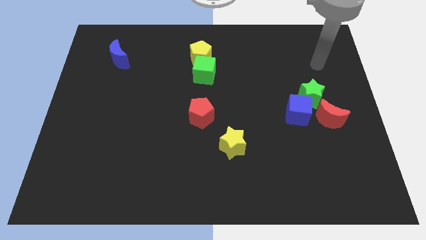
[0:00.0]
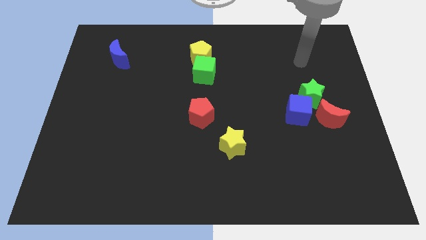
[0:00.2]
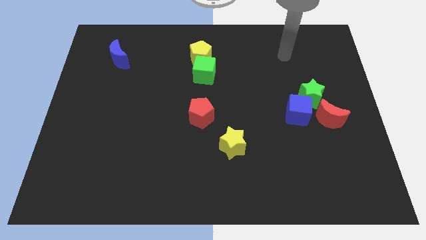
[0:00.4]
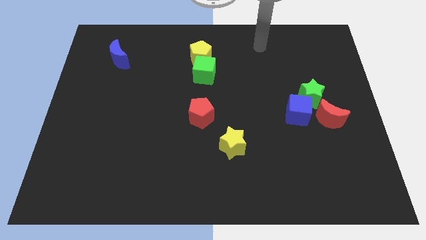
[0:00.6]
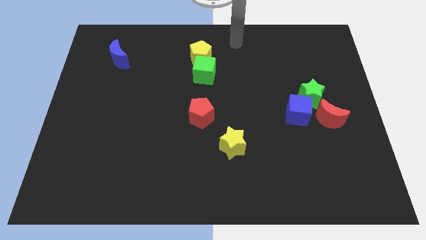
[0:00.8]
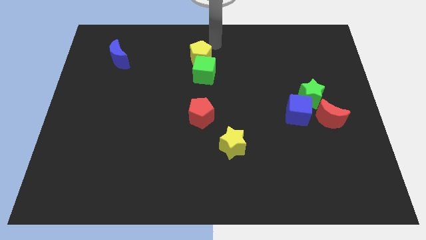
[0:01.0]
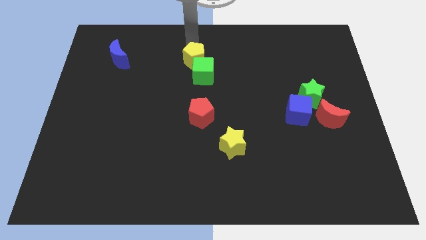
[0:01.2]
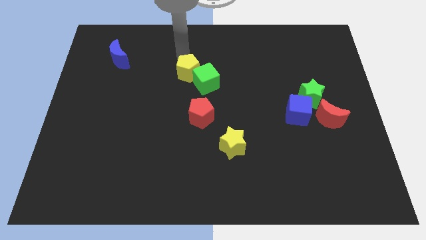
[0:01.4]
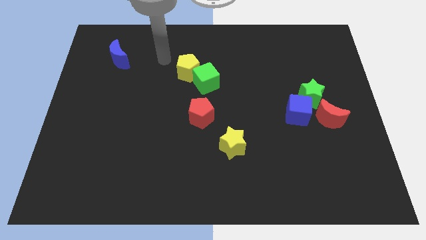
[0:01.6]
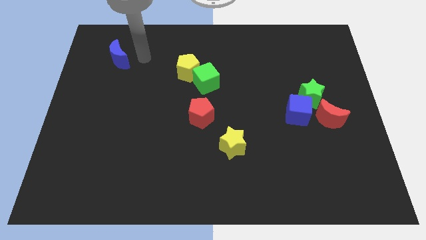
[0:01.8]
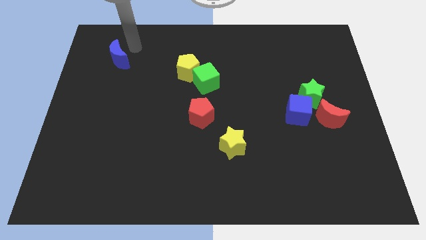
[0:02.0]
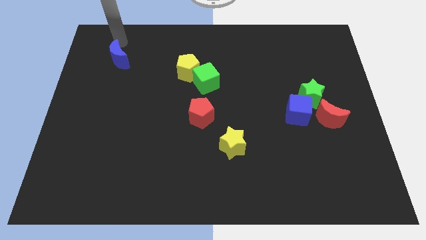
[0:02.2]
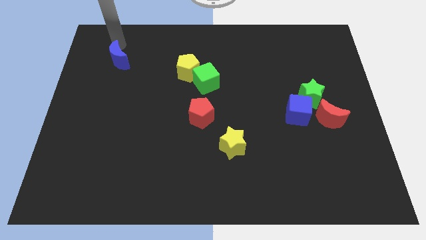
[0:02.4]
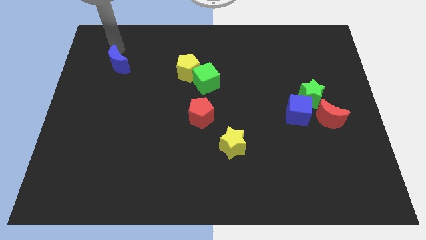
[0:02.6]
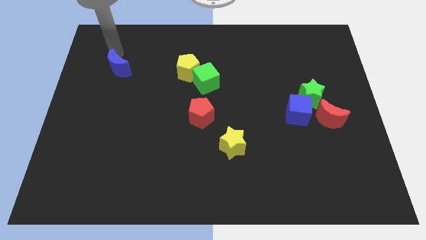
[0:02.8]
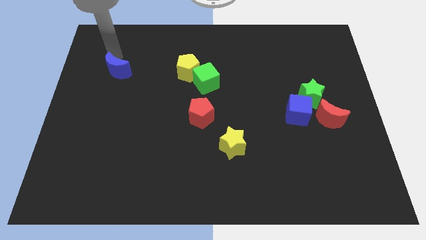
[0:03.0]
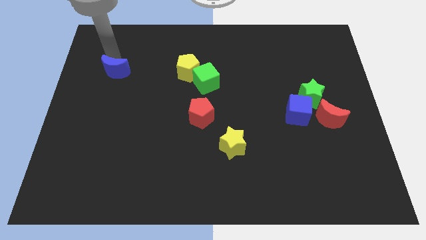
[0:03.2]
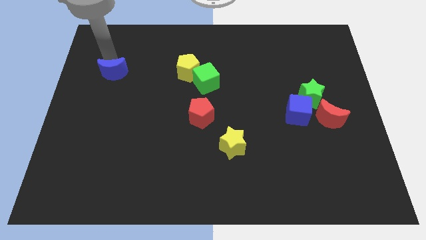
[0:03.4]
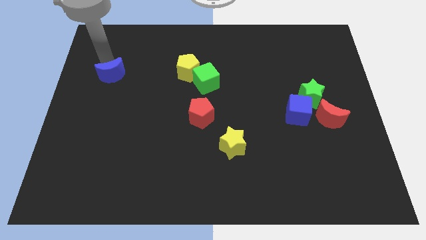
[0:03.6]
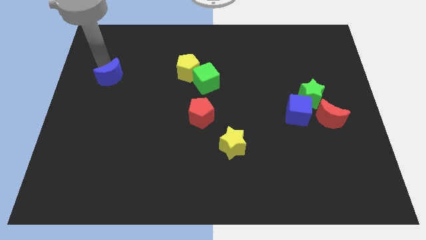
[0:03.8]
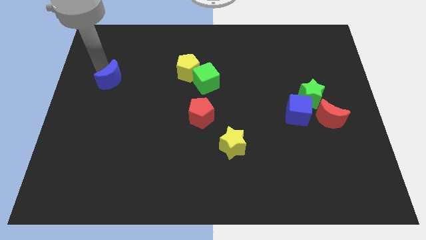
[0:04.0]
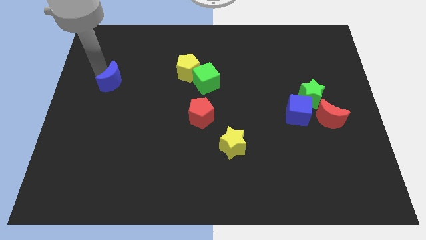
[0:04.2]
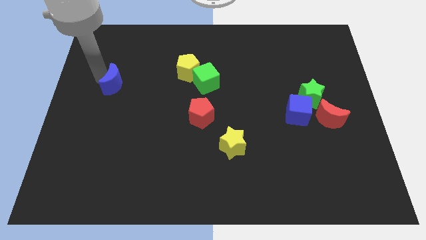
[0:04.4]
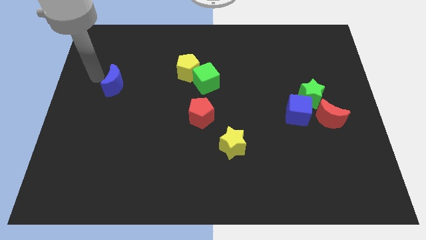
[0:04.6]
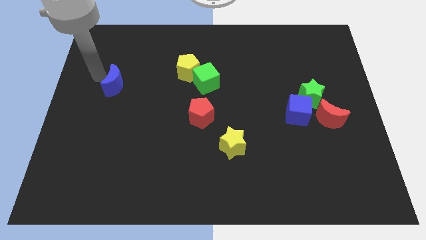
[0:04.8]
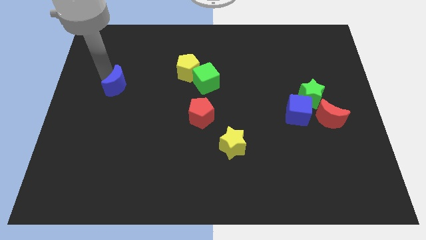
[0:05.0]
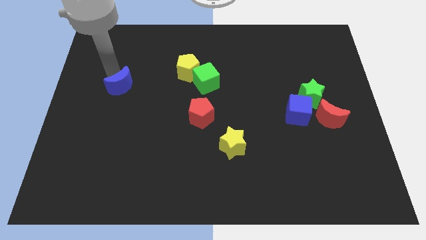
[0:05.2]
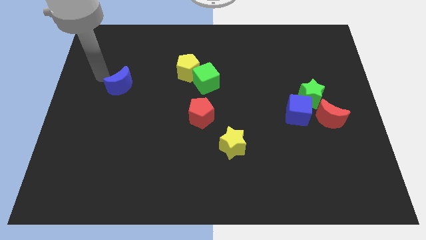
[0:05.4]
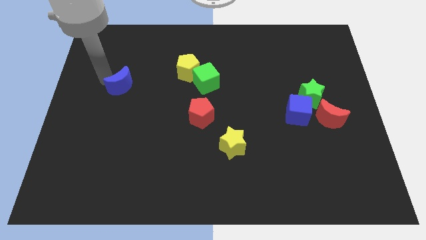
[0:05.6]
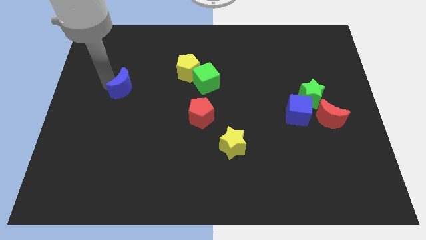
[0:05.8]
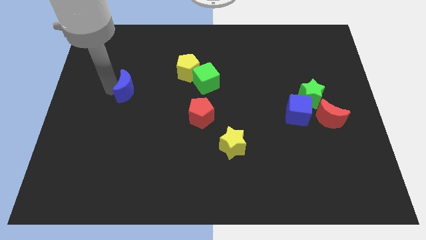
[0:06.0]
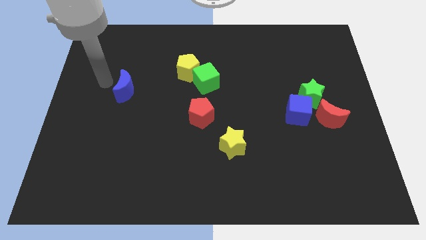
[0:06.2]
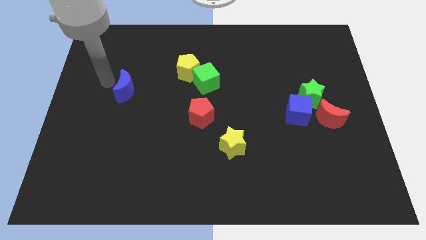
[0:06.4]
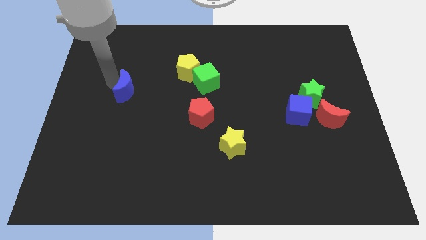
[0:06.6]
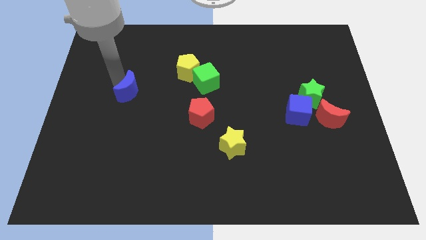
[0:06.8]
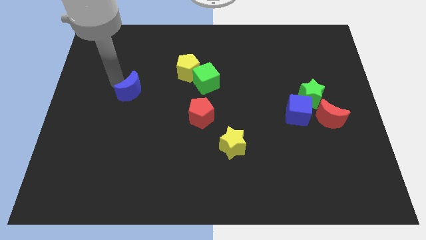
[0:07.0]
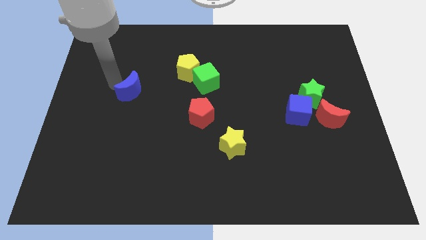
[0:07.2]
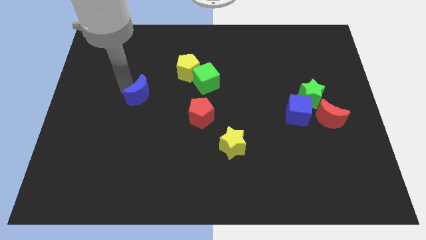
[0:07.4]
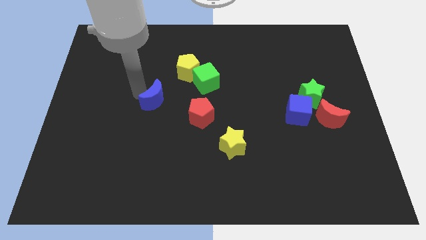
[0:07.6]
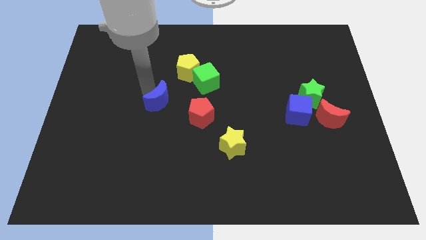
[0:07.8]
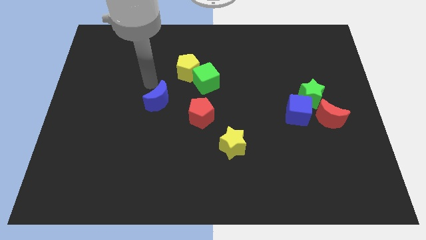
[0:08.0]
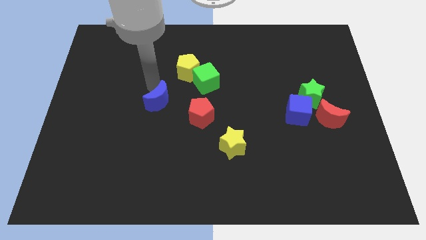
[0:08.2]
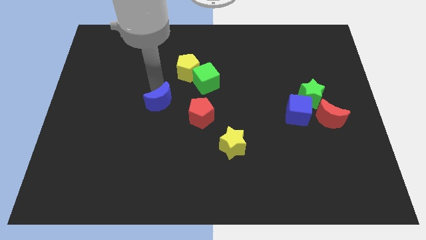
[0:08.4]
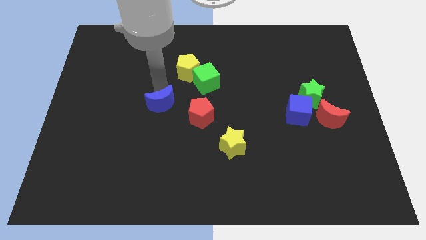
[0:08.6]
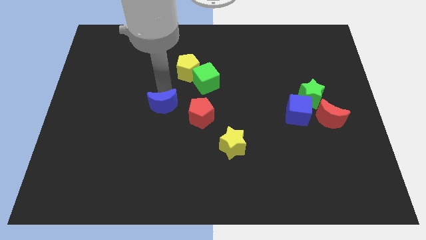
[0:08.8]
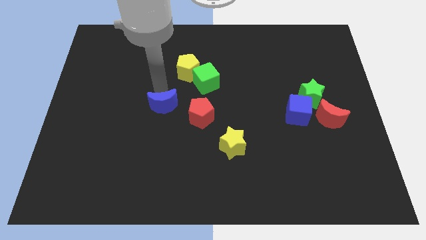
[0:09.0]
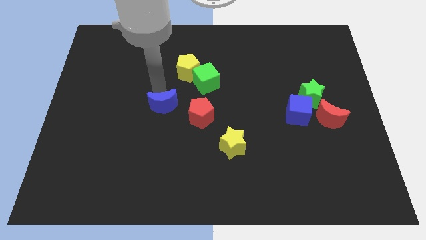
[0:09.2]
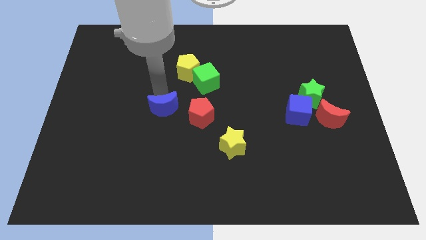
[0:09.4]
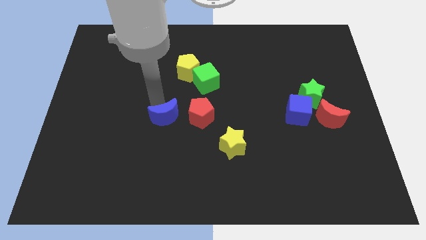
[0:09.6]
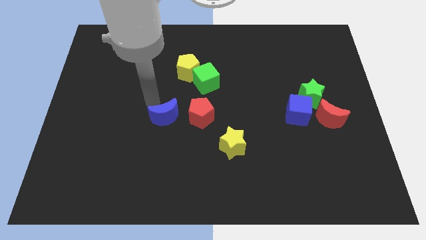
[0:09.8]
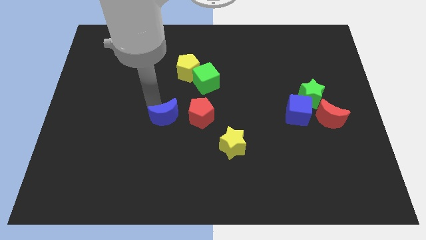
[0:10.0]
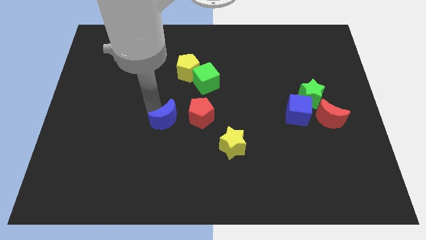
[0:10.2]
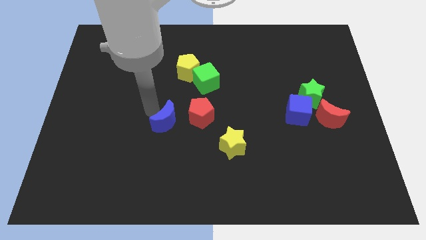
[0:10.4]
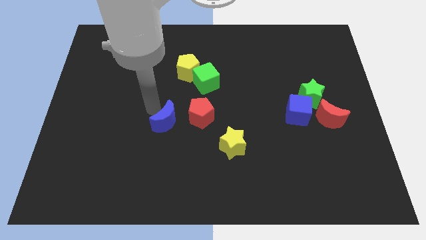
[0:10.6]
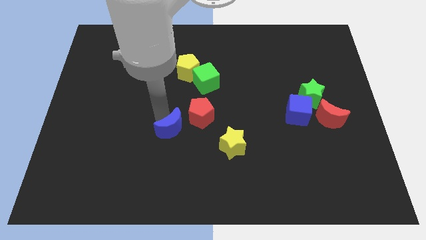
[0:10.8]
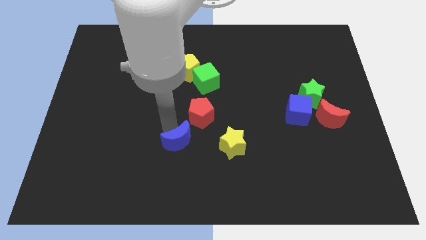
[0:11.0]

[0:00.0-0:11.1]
push the blue moon below the red pentagon

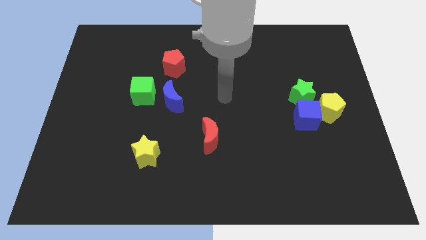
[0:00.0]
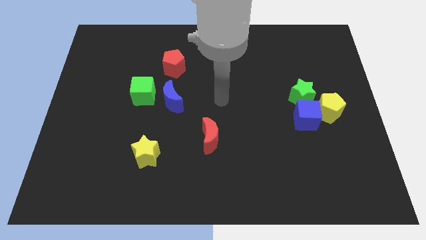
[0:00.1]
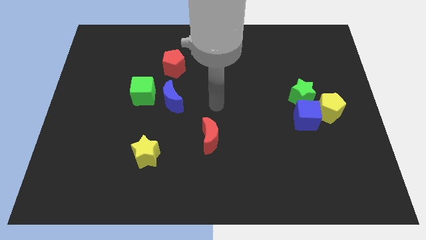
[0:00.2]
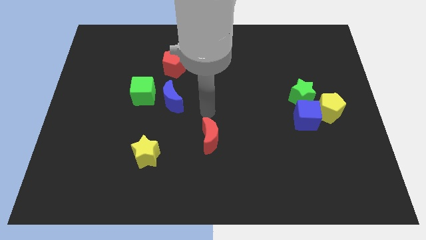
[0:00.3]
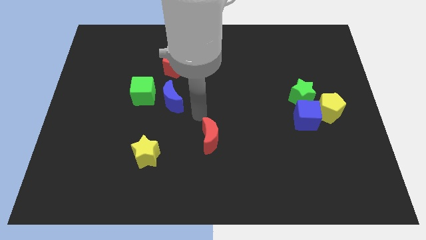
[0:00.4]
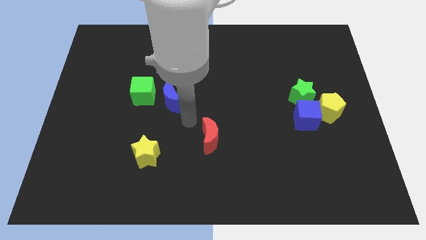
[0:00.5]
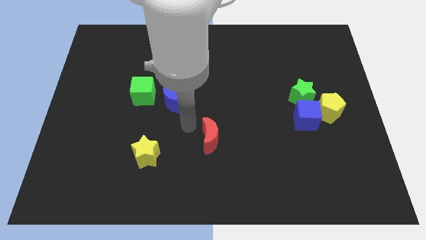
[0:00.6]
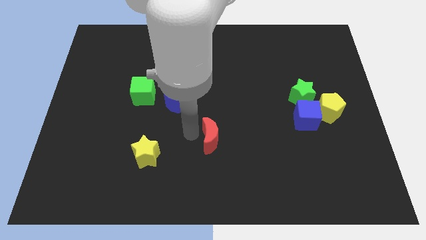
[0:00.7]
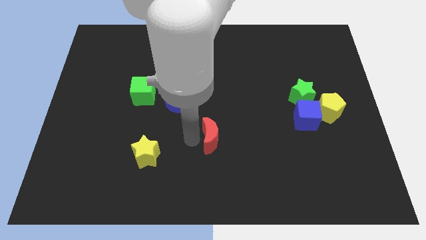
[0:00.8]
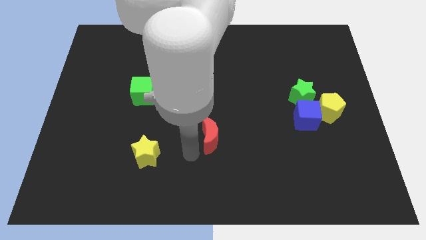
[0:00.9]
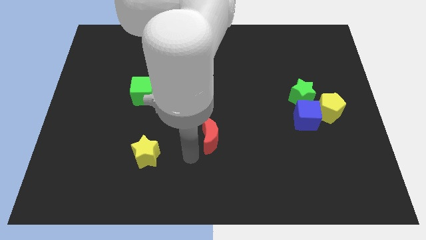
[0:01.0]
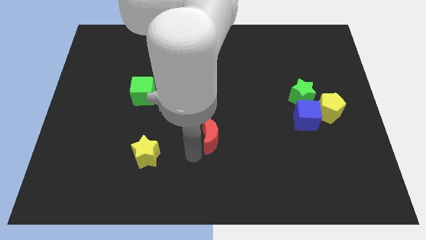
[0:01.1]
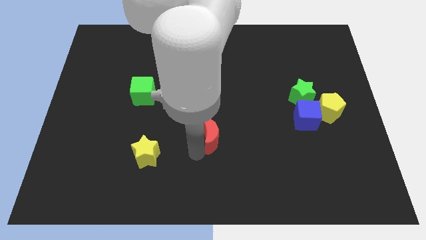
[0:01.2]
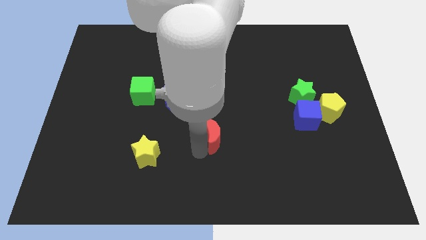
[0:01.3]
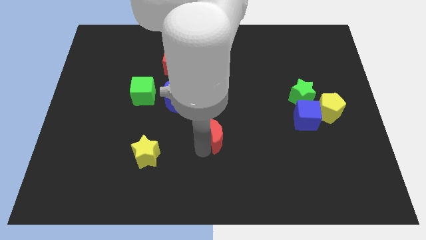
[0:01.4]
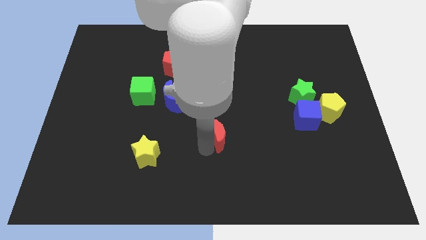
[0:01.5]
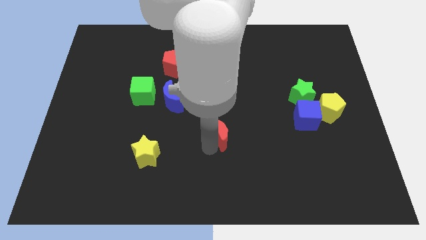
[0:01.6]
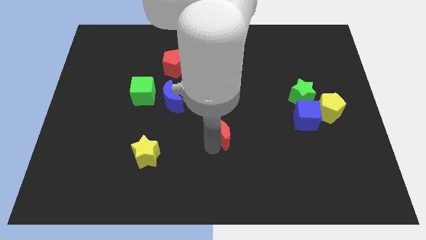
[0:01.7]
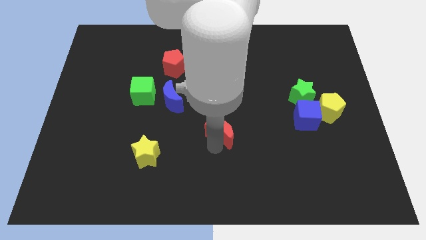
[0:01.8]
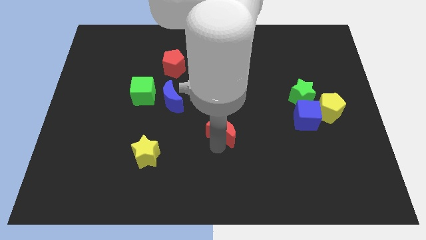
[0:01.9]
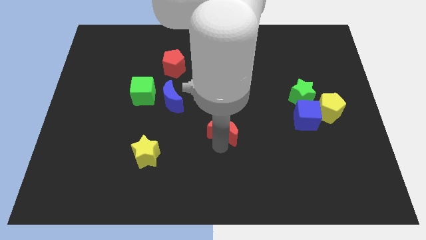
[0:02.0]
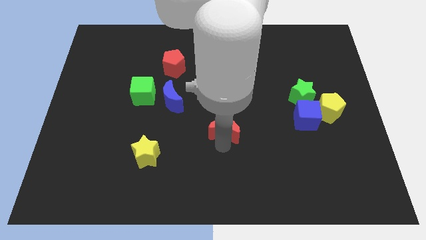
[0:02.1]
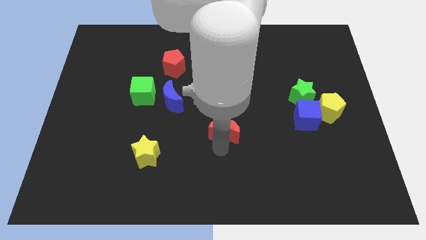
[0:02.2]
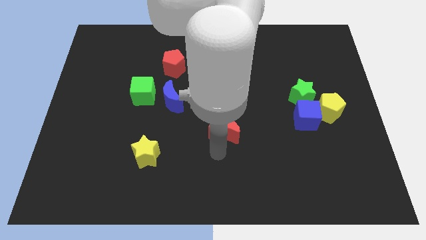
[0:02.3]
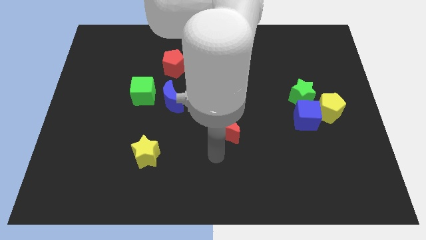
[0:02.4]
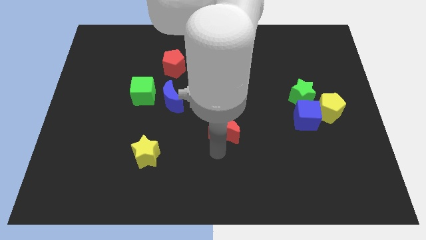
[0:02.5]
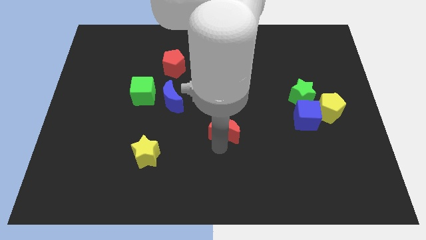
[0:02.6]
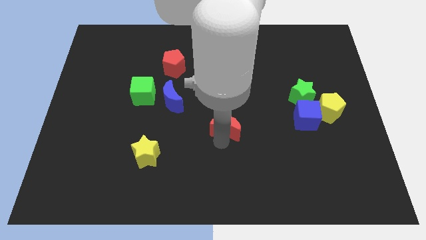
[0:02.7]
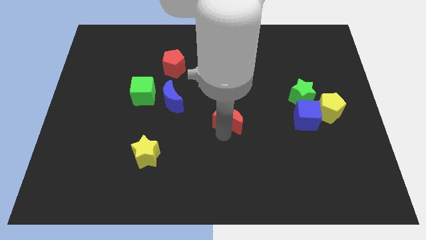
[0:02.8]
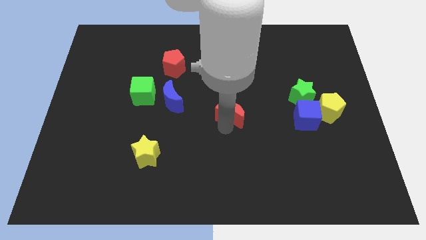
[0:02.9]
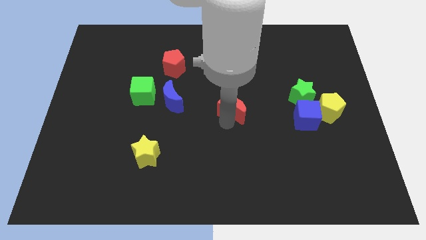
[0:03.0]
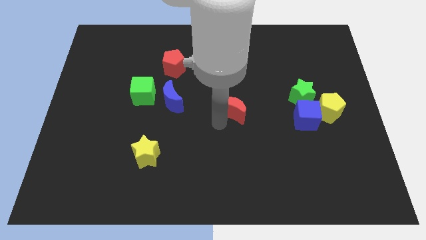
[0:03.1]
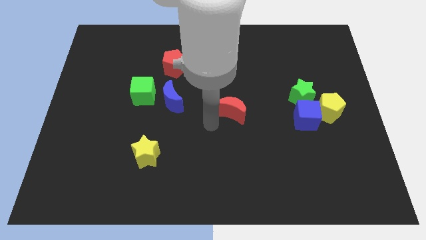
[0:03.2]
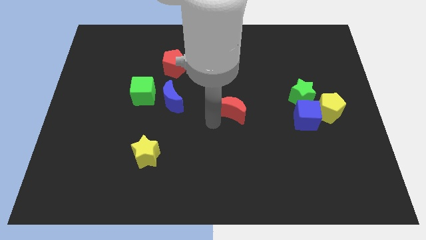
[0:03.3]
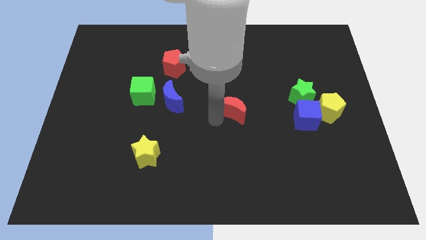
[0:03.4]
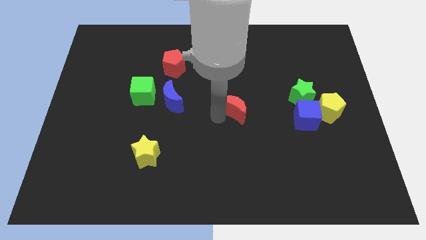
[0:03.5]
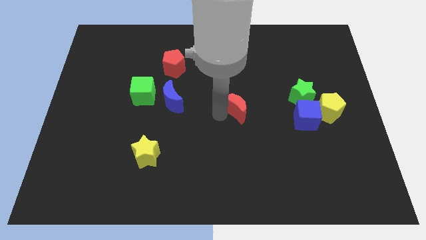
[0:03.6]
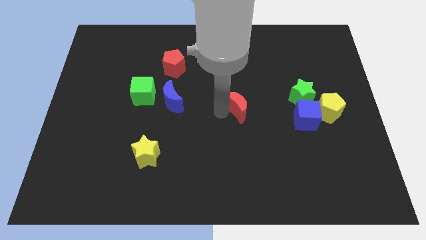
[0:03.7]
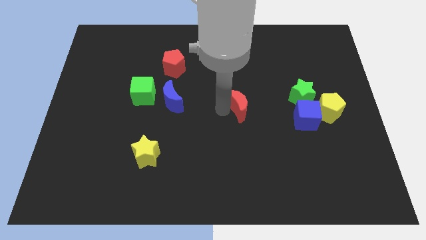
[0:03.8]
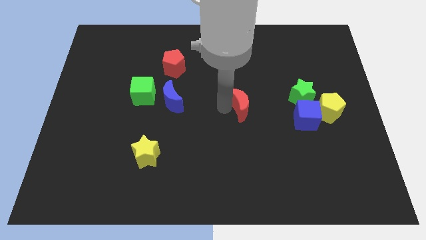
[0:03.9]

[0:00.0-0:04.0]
slide the red moon to the left side of the green star
